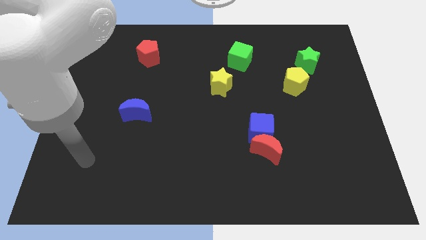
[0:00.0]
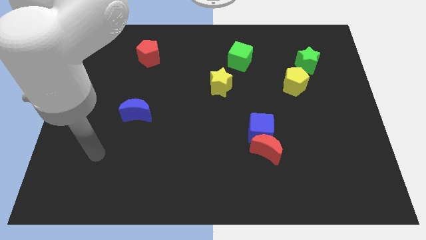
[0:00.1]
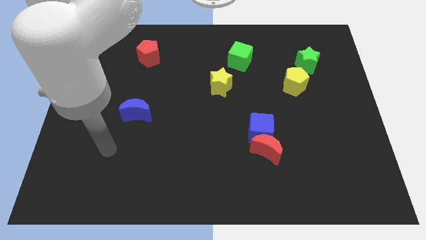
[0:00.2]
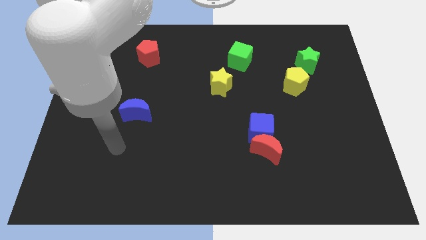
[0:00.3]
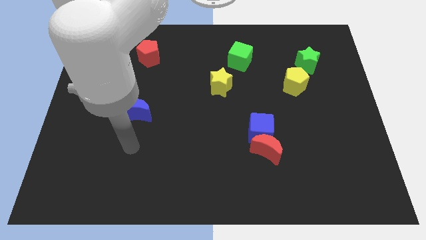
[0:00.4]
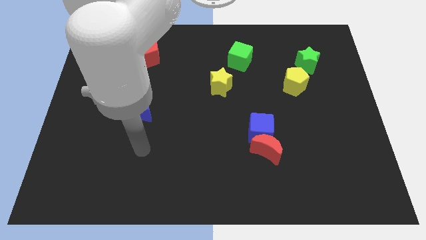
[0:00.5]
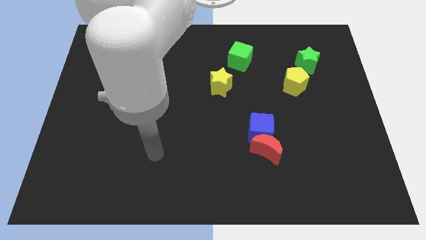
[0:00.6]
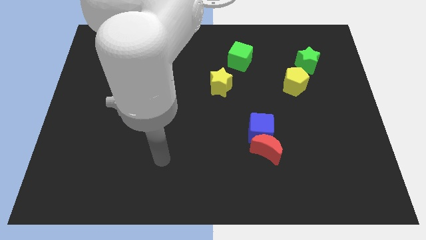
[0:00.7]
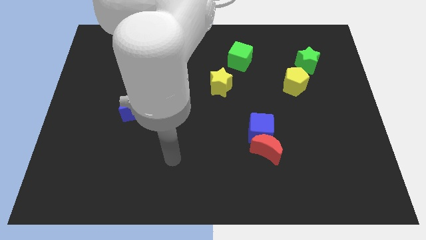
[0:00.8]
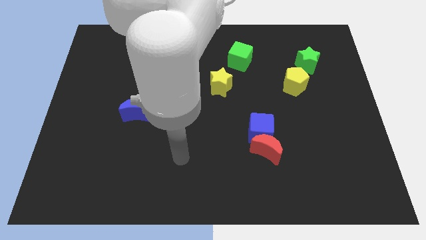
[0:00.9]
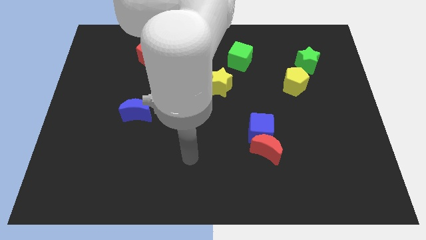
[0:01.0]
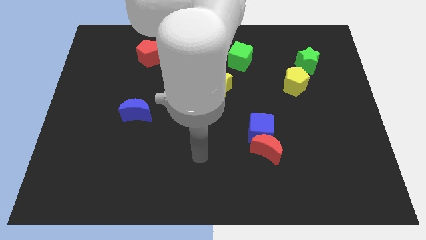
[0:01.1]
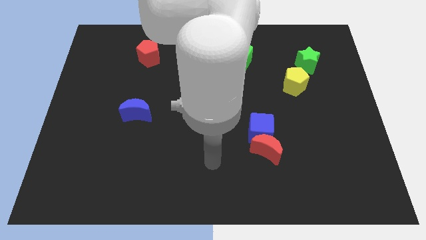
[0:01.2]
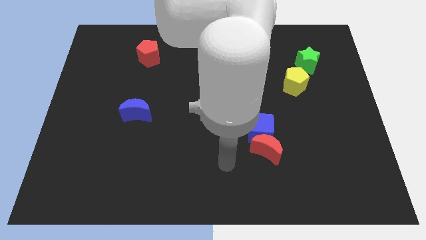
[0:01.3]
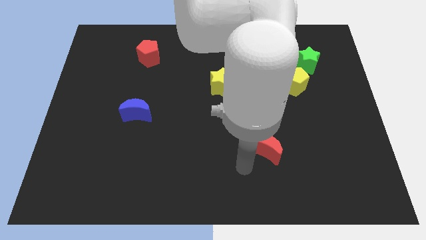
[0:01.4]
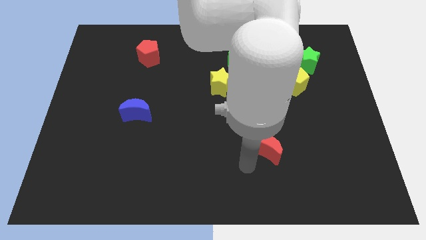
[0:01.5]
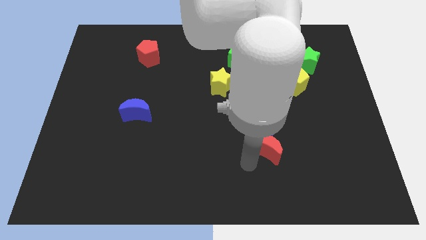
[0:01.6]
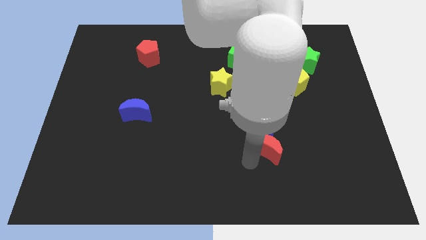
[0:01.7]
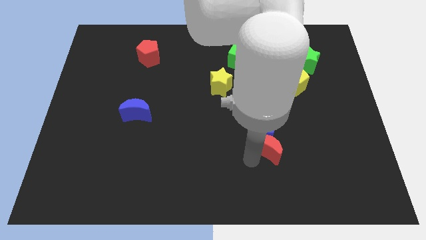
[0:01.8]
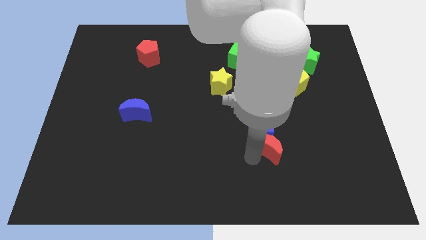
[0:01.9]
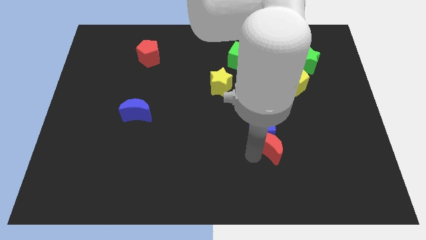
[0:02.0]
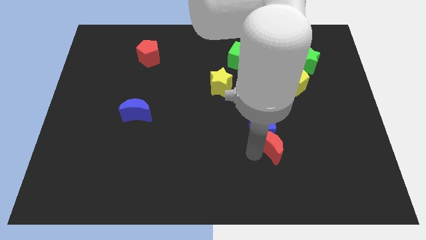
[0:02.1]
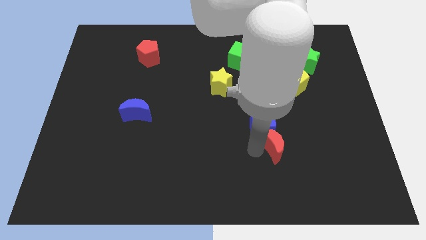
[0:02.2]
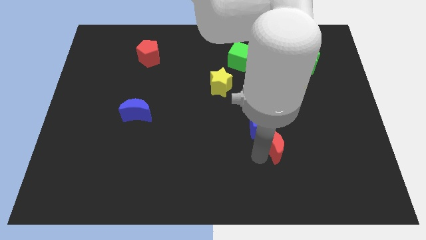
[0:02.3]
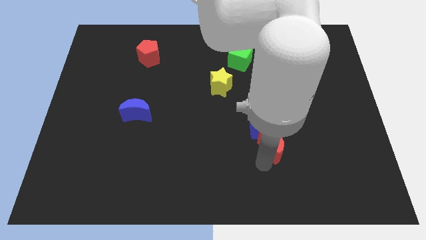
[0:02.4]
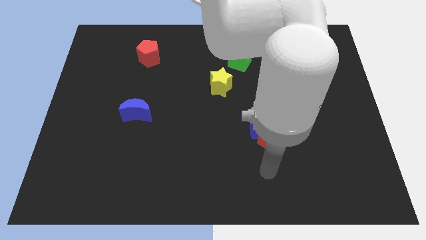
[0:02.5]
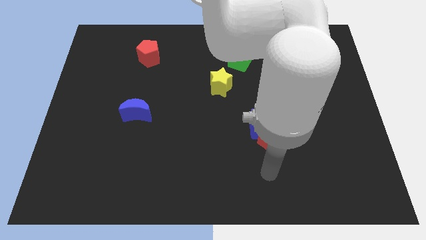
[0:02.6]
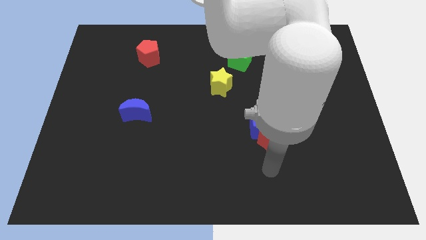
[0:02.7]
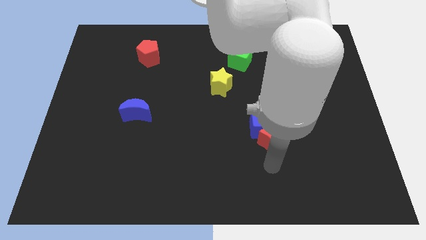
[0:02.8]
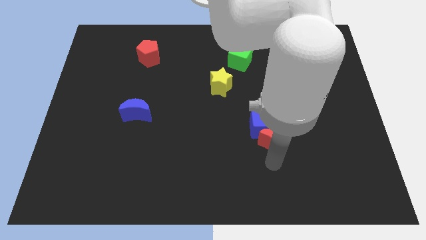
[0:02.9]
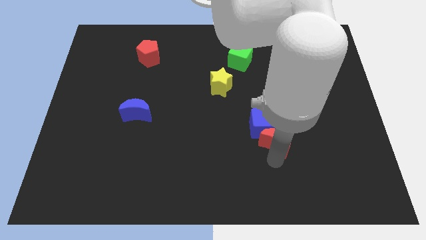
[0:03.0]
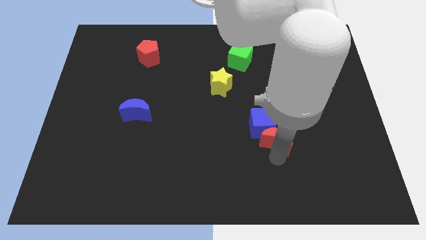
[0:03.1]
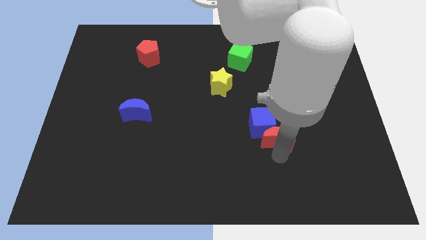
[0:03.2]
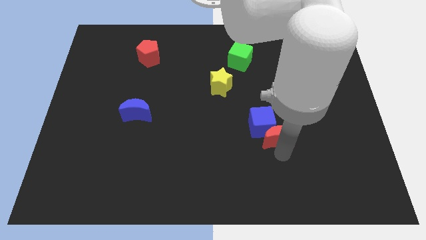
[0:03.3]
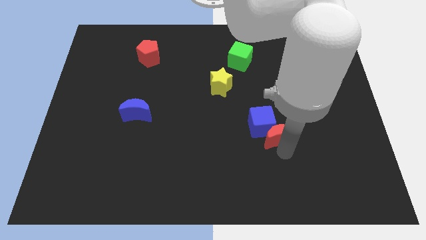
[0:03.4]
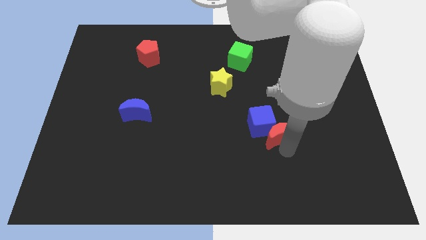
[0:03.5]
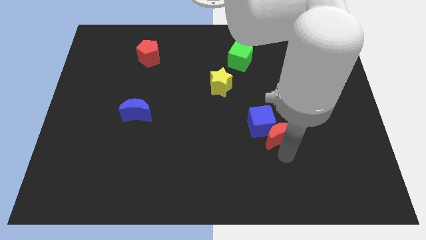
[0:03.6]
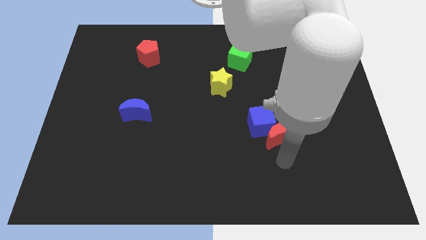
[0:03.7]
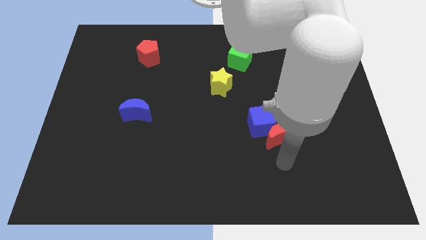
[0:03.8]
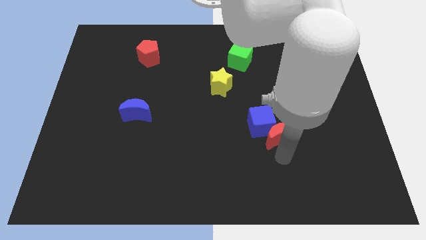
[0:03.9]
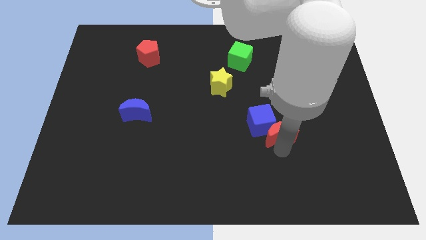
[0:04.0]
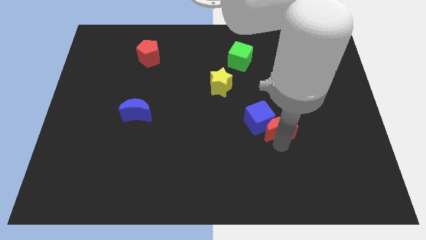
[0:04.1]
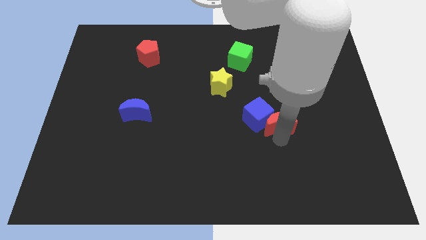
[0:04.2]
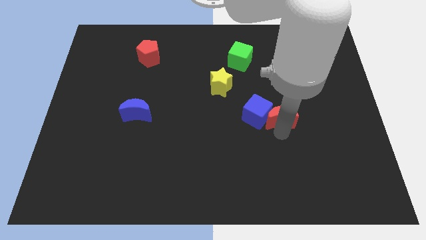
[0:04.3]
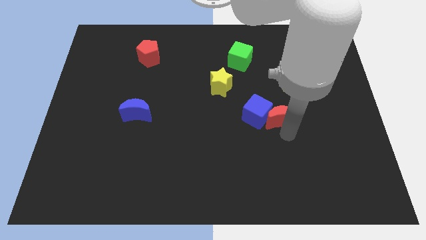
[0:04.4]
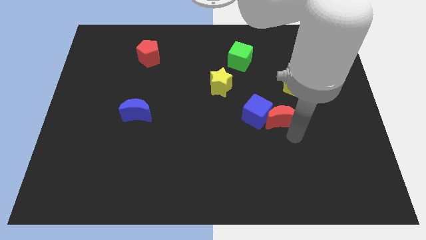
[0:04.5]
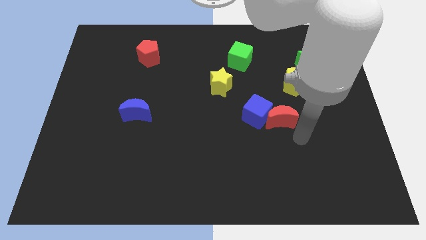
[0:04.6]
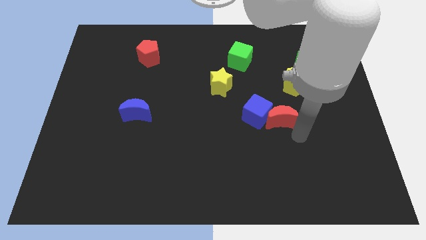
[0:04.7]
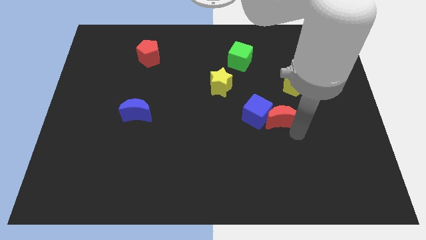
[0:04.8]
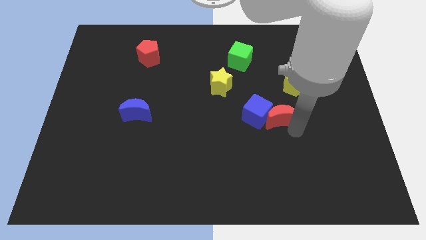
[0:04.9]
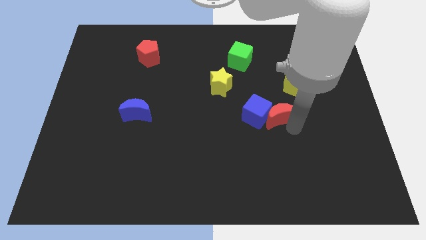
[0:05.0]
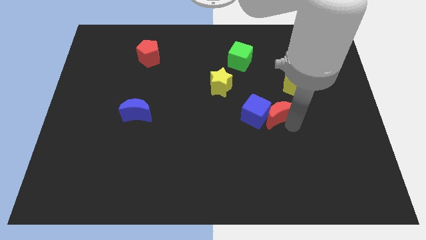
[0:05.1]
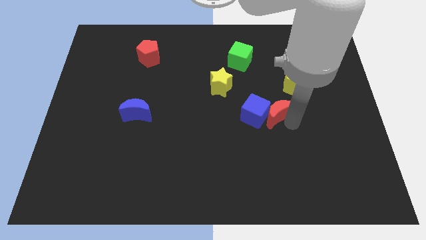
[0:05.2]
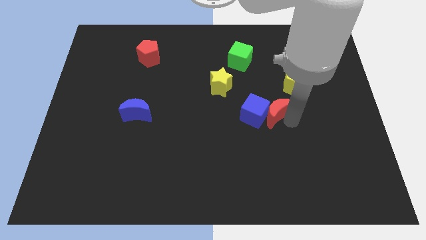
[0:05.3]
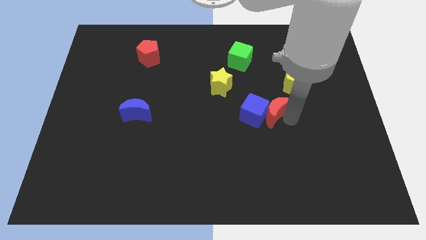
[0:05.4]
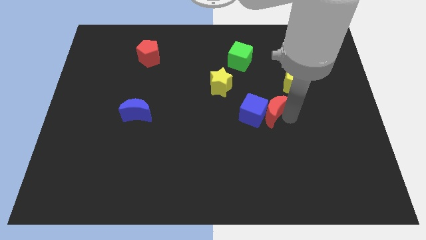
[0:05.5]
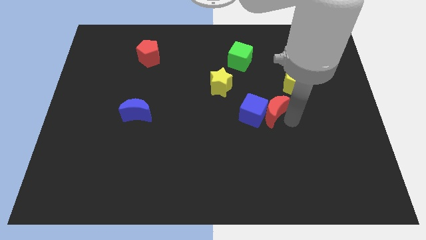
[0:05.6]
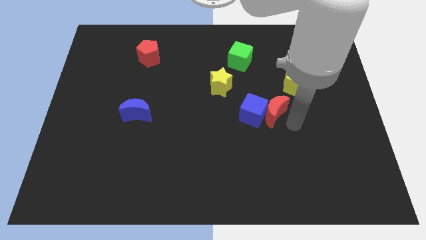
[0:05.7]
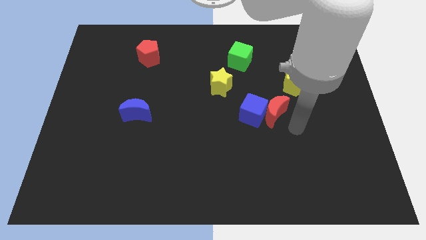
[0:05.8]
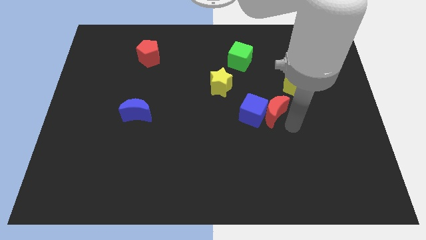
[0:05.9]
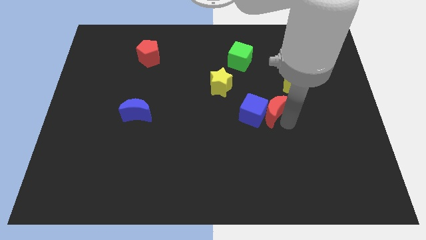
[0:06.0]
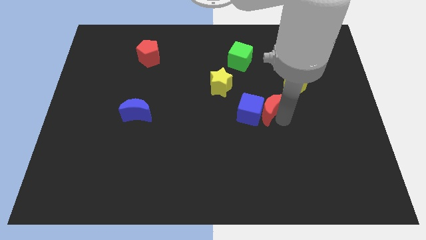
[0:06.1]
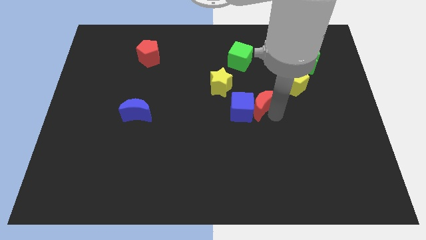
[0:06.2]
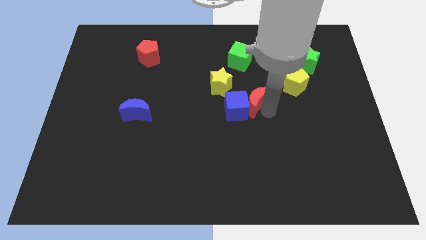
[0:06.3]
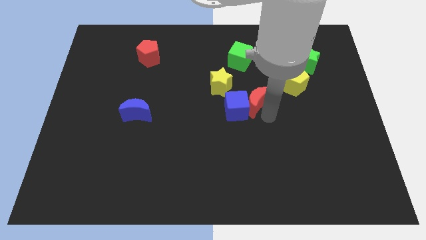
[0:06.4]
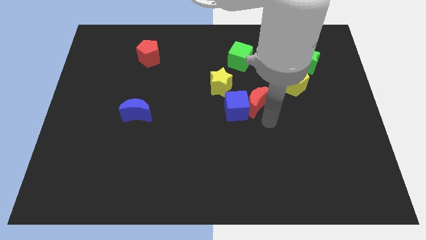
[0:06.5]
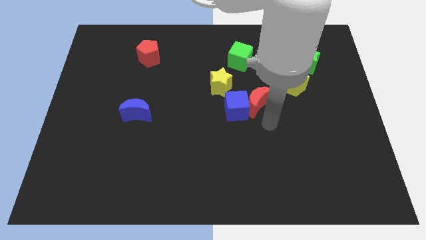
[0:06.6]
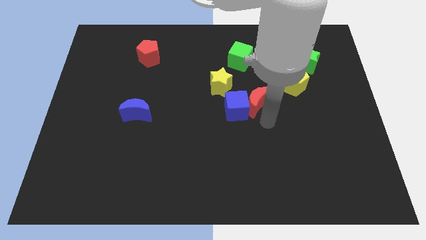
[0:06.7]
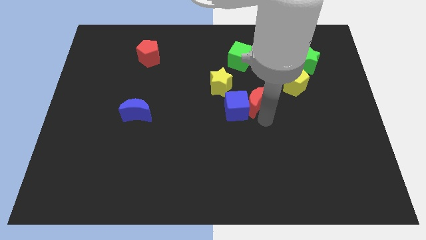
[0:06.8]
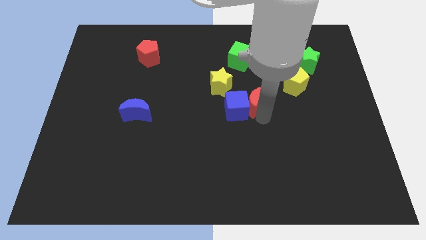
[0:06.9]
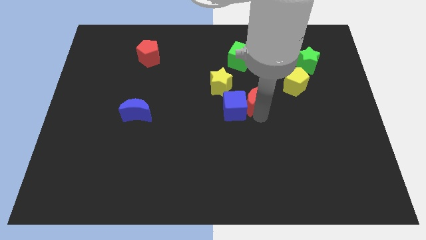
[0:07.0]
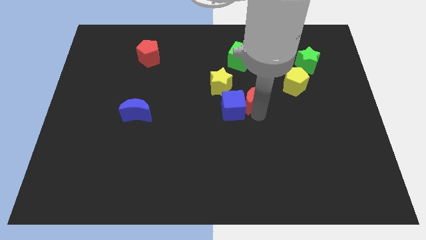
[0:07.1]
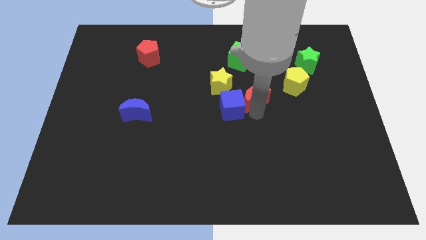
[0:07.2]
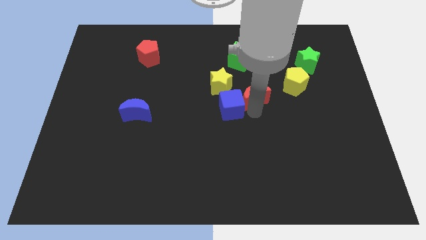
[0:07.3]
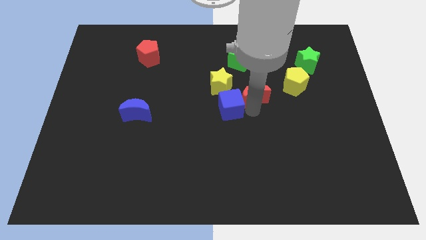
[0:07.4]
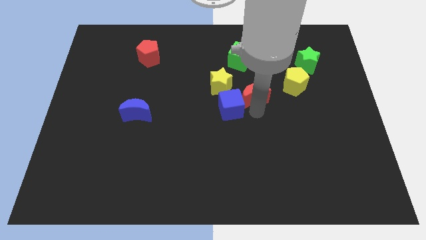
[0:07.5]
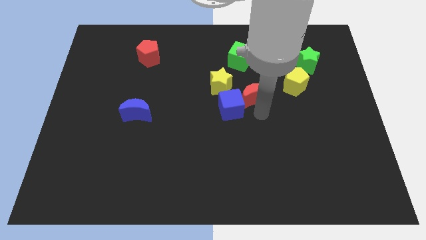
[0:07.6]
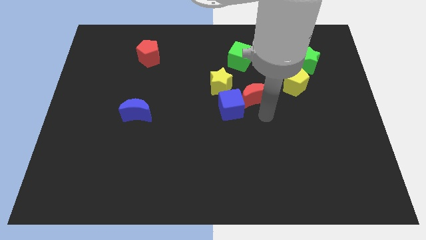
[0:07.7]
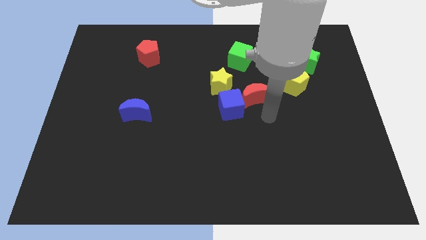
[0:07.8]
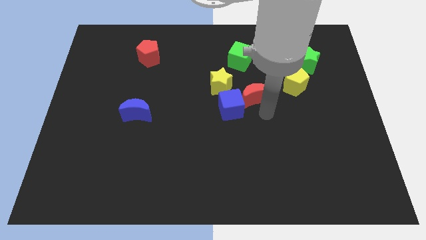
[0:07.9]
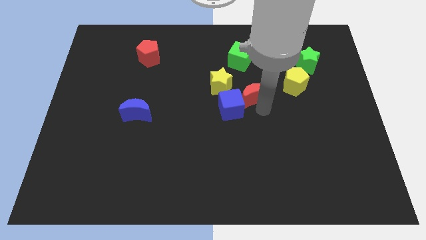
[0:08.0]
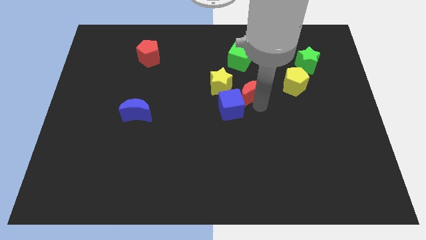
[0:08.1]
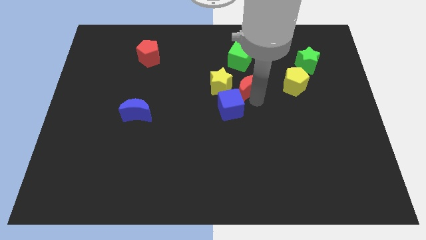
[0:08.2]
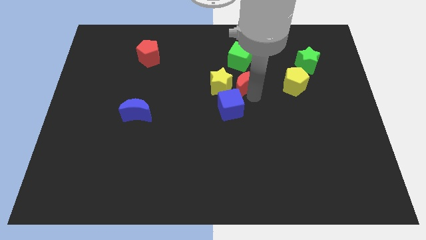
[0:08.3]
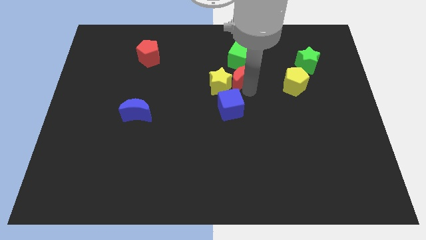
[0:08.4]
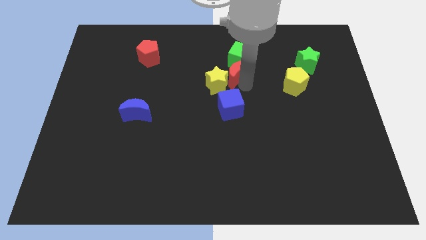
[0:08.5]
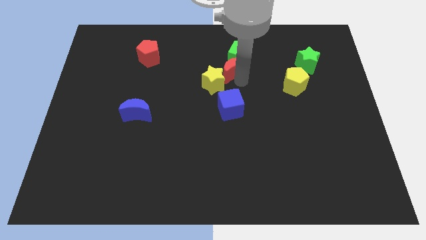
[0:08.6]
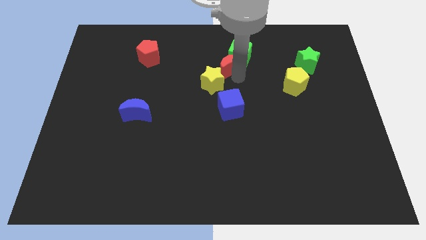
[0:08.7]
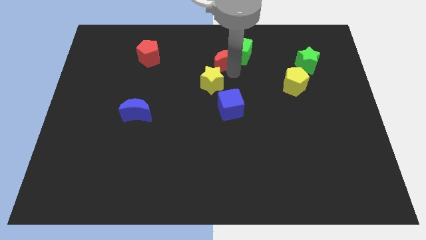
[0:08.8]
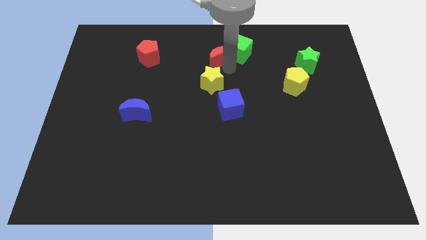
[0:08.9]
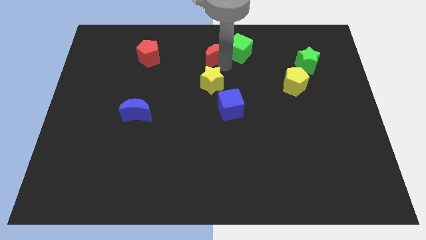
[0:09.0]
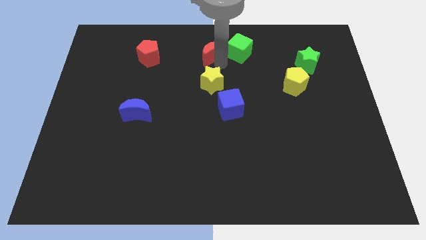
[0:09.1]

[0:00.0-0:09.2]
slide the red moon to the top
